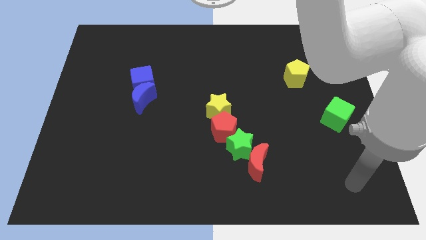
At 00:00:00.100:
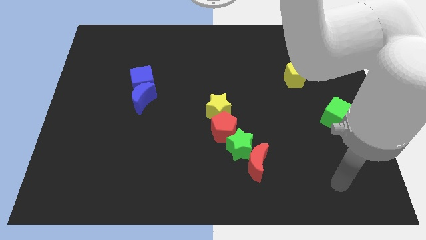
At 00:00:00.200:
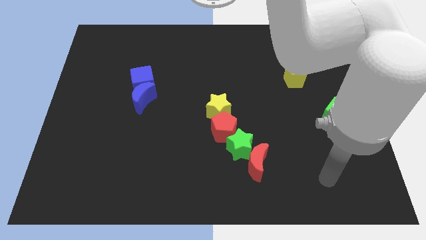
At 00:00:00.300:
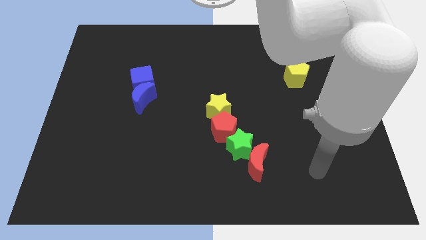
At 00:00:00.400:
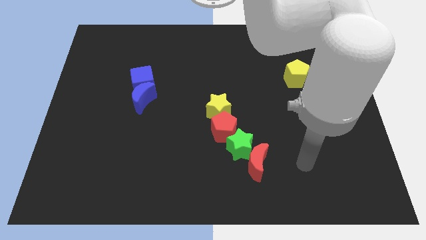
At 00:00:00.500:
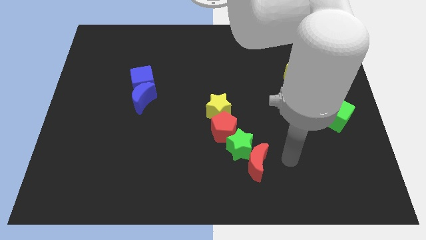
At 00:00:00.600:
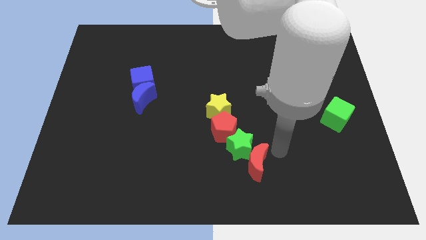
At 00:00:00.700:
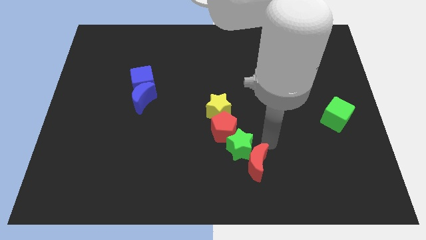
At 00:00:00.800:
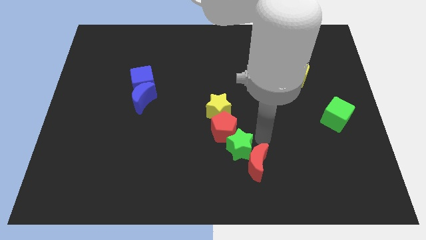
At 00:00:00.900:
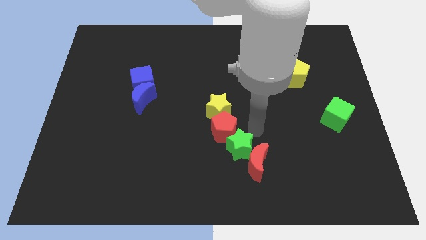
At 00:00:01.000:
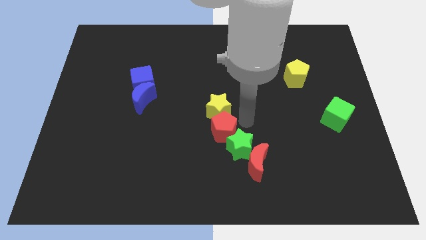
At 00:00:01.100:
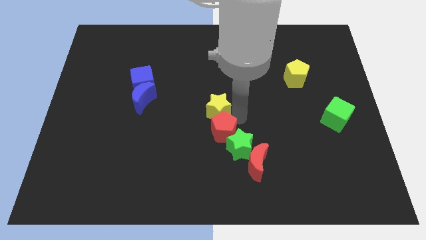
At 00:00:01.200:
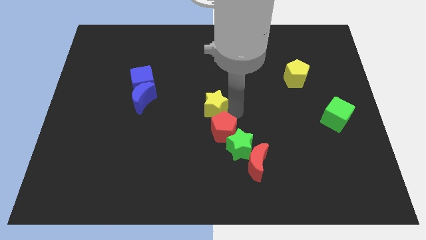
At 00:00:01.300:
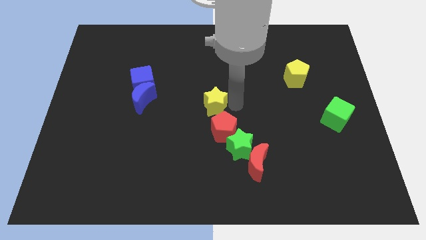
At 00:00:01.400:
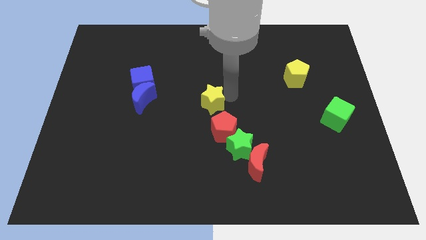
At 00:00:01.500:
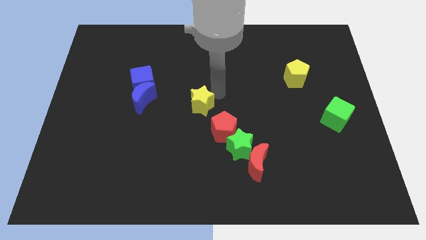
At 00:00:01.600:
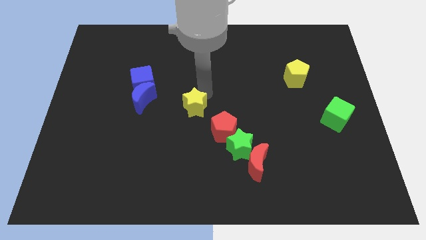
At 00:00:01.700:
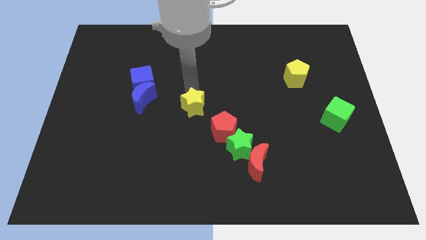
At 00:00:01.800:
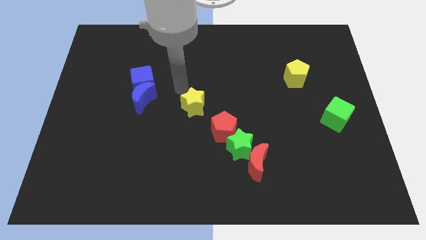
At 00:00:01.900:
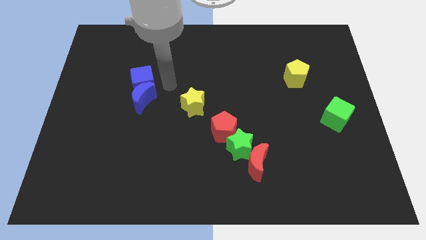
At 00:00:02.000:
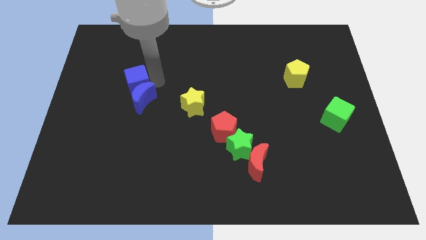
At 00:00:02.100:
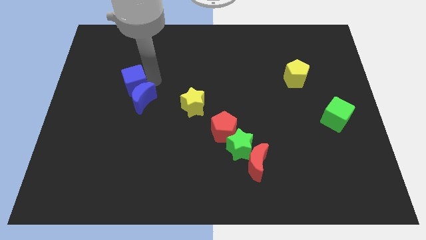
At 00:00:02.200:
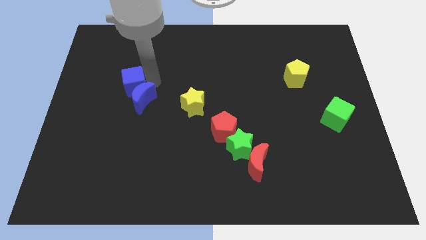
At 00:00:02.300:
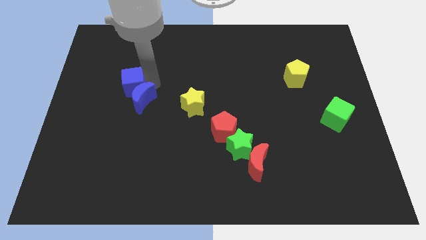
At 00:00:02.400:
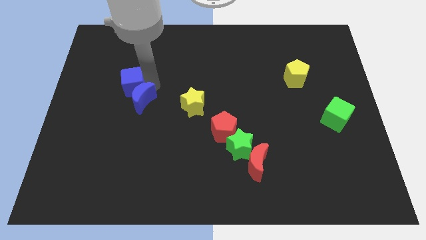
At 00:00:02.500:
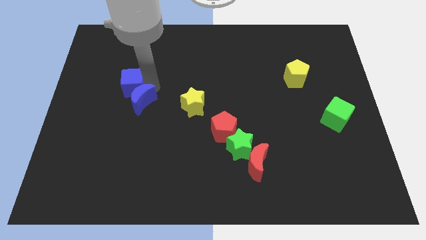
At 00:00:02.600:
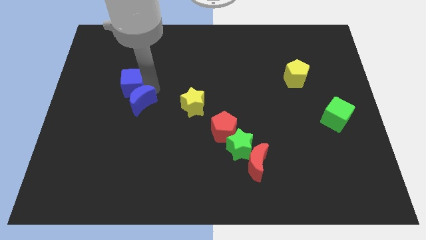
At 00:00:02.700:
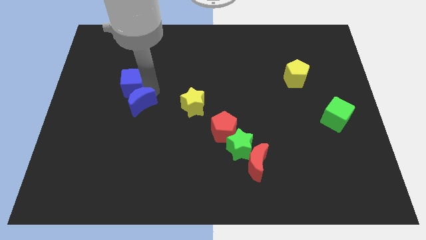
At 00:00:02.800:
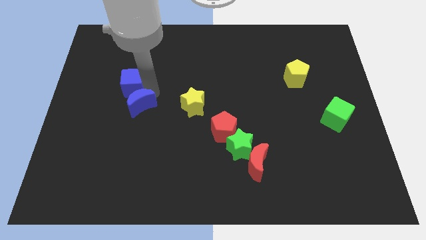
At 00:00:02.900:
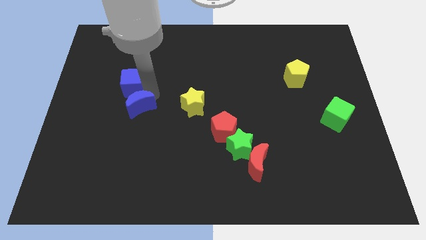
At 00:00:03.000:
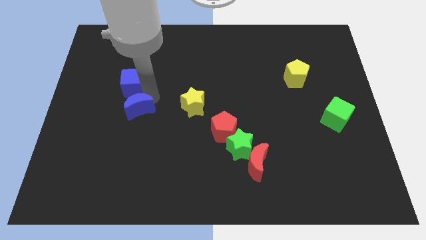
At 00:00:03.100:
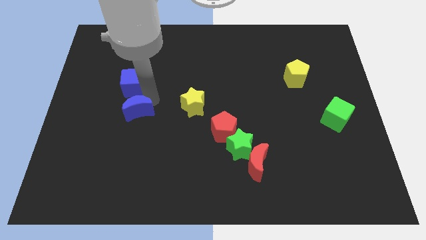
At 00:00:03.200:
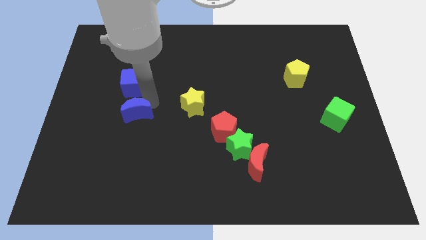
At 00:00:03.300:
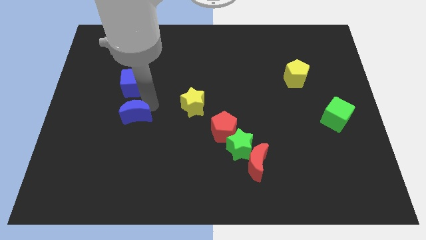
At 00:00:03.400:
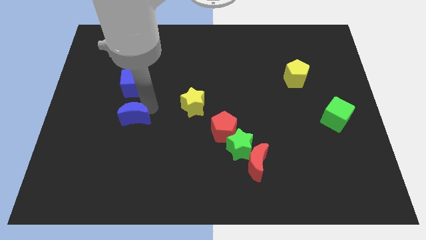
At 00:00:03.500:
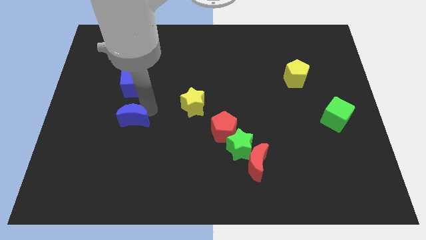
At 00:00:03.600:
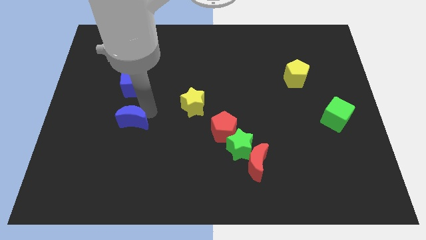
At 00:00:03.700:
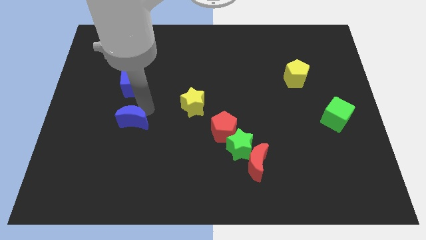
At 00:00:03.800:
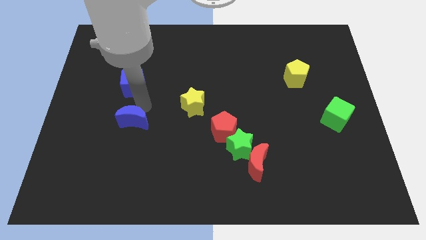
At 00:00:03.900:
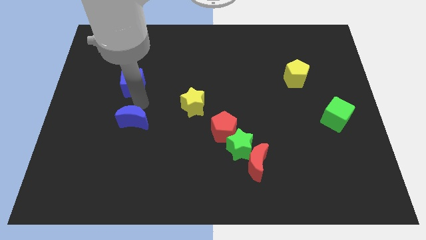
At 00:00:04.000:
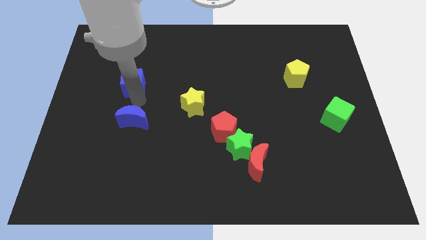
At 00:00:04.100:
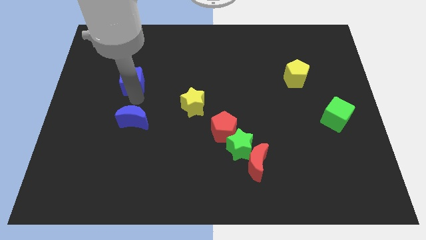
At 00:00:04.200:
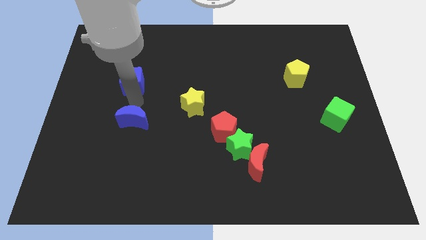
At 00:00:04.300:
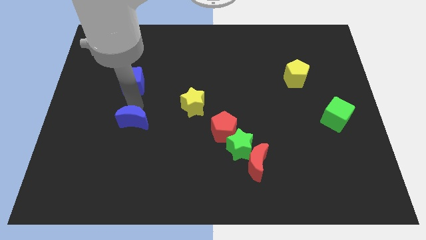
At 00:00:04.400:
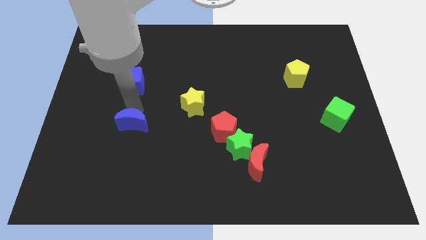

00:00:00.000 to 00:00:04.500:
push the blue moon somewhat down

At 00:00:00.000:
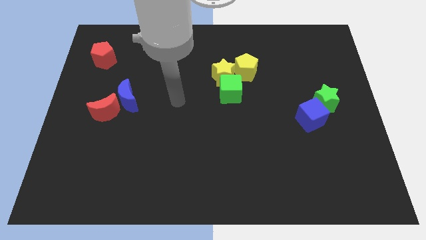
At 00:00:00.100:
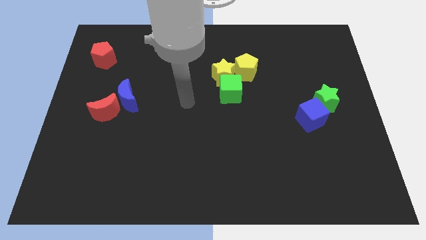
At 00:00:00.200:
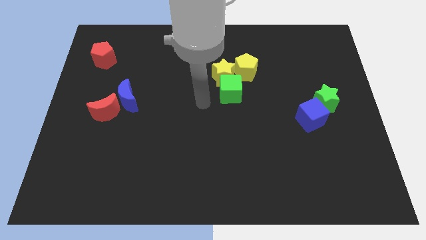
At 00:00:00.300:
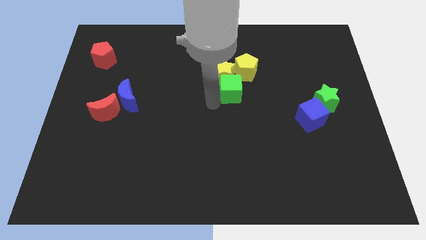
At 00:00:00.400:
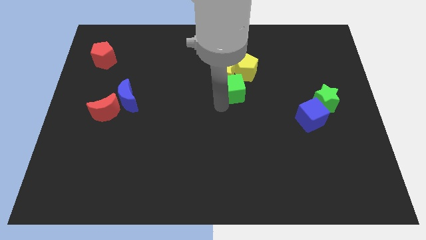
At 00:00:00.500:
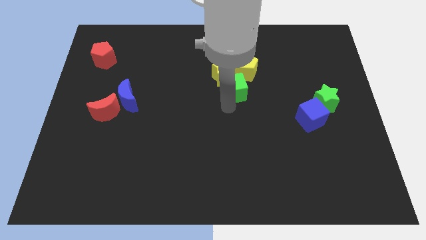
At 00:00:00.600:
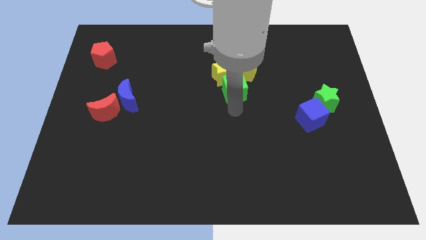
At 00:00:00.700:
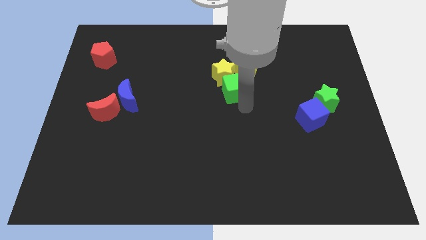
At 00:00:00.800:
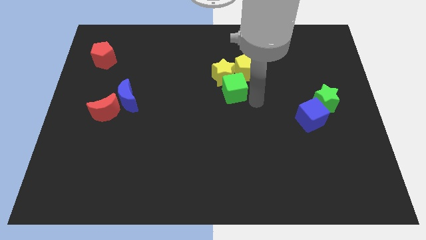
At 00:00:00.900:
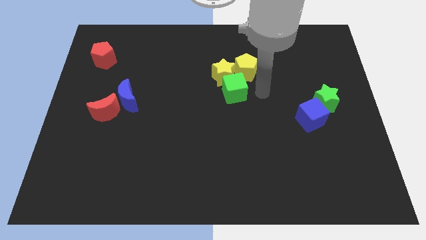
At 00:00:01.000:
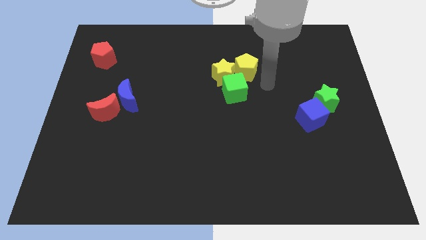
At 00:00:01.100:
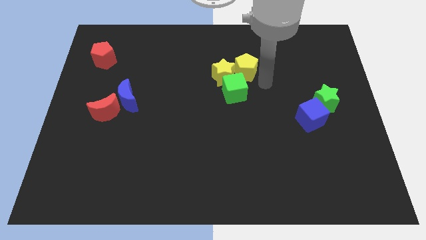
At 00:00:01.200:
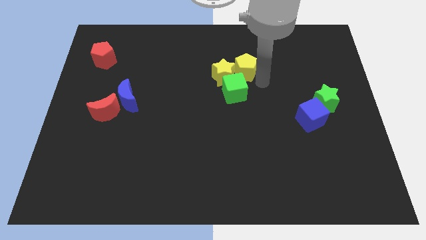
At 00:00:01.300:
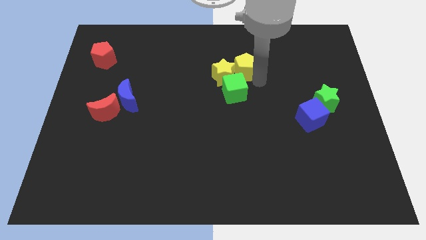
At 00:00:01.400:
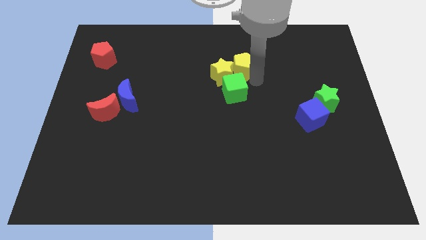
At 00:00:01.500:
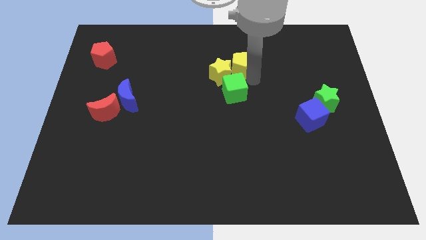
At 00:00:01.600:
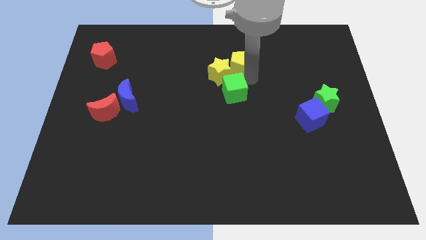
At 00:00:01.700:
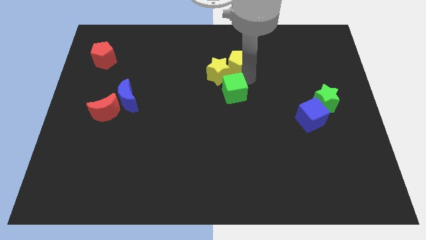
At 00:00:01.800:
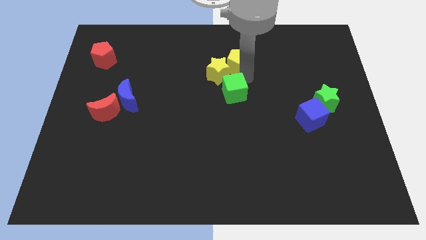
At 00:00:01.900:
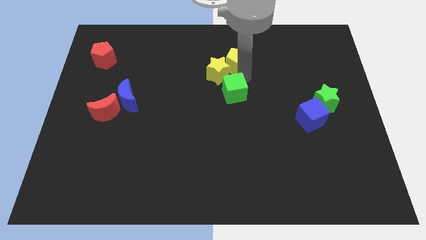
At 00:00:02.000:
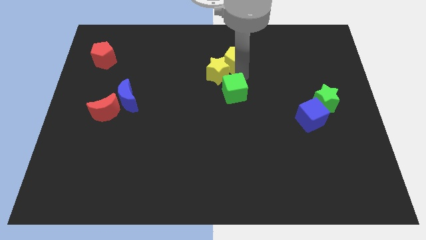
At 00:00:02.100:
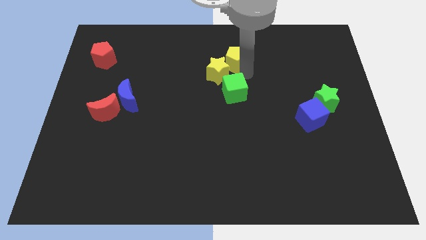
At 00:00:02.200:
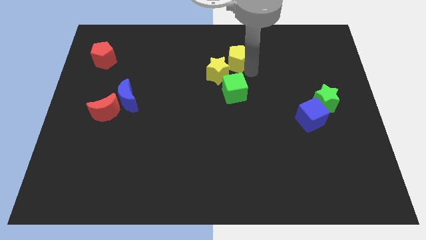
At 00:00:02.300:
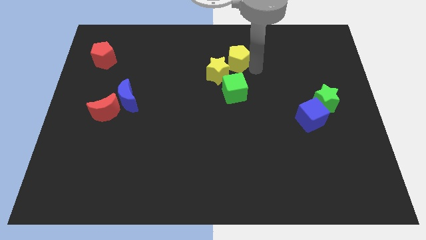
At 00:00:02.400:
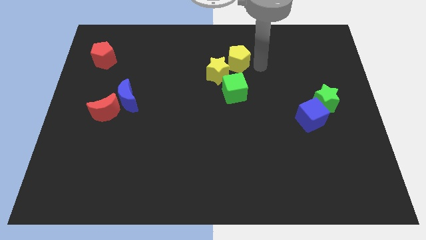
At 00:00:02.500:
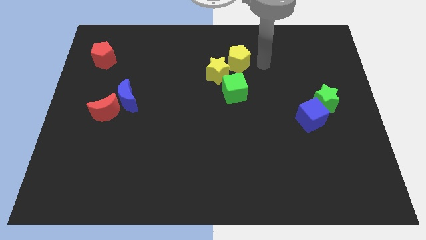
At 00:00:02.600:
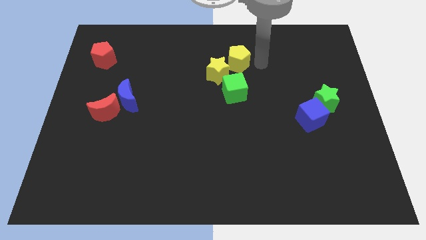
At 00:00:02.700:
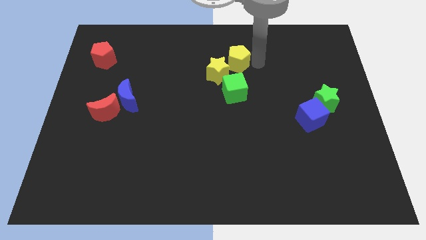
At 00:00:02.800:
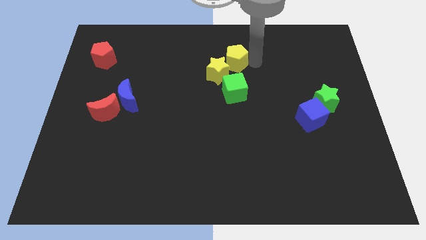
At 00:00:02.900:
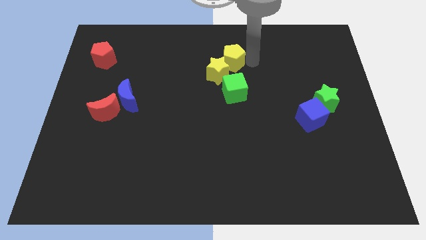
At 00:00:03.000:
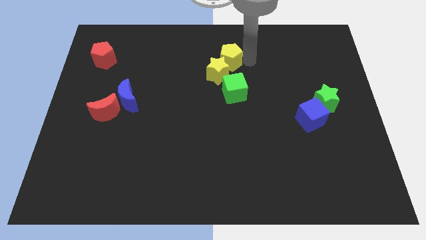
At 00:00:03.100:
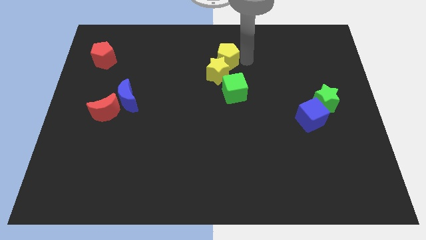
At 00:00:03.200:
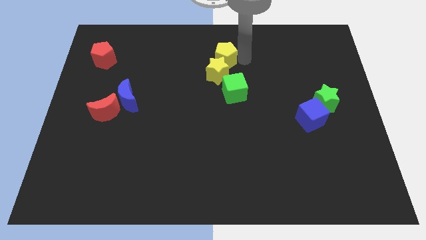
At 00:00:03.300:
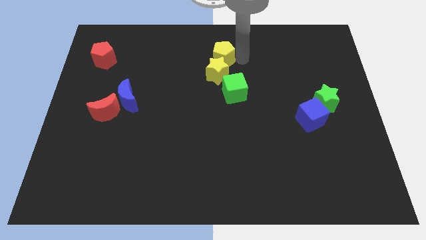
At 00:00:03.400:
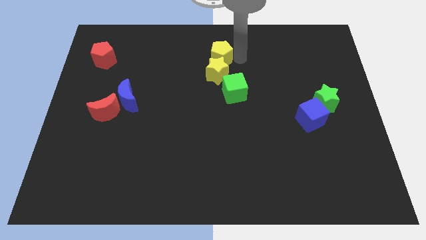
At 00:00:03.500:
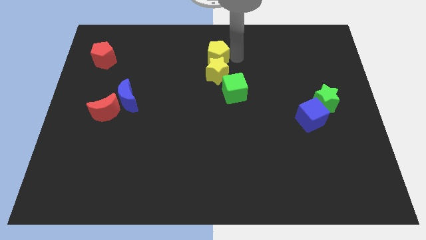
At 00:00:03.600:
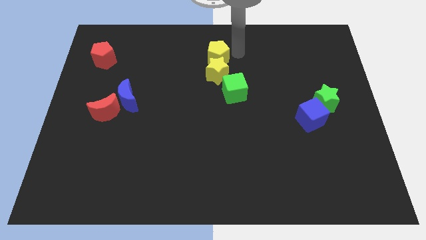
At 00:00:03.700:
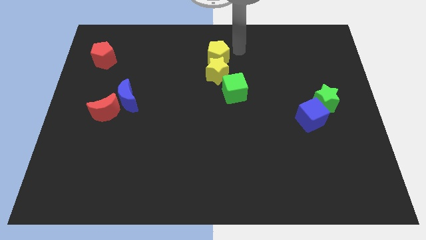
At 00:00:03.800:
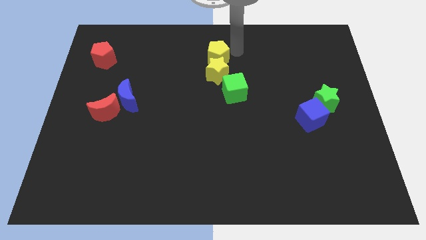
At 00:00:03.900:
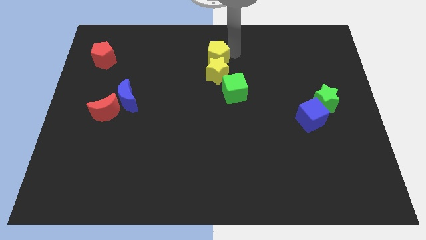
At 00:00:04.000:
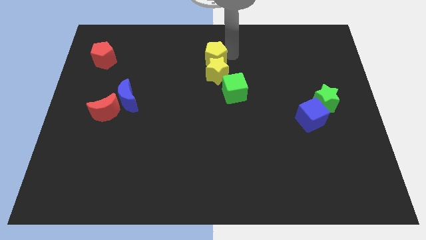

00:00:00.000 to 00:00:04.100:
push the yellow pentagon left slightly
